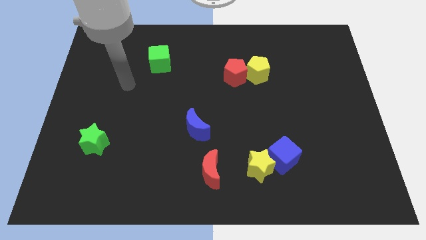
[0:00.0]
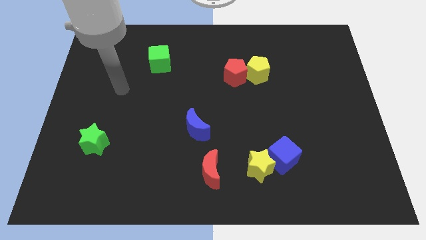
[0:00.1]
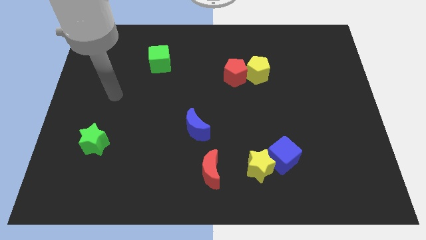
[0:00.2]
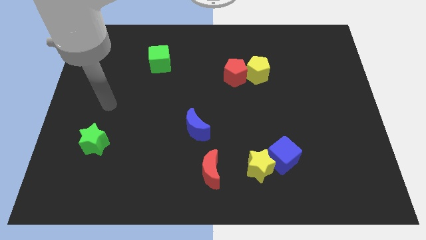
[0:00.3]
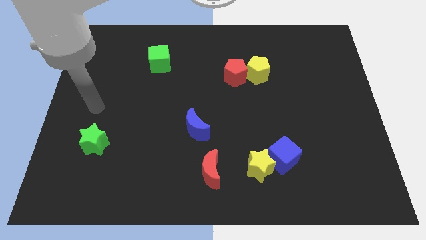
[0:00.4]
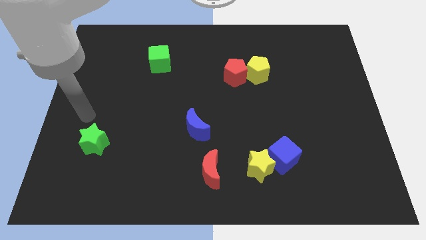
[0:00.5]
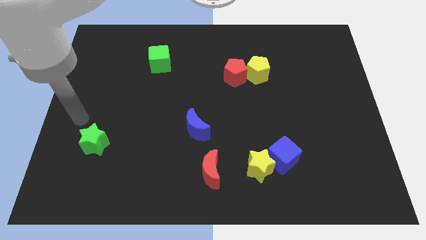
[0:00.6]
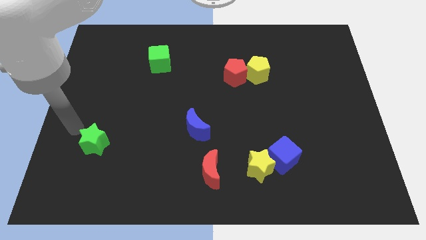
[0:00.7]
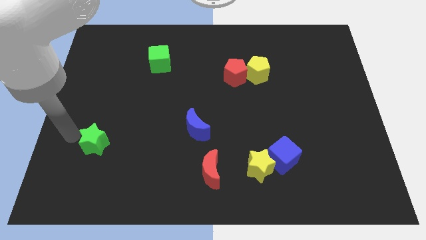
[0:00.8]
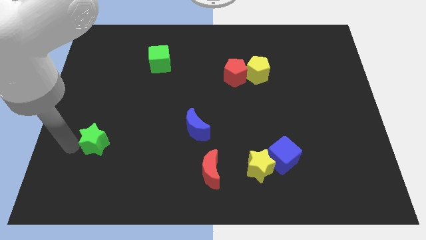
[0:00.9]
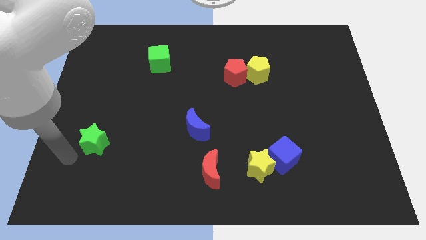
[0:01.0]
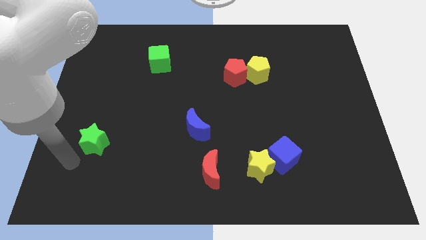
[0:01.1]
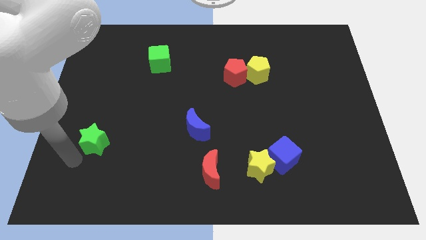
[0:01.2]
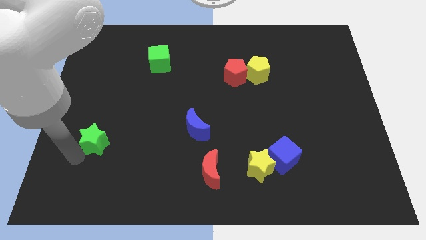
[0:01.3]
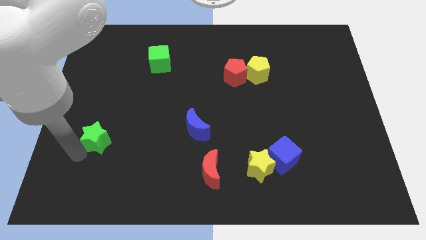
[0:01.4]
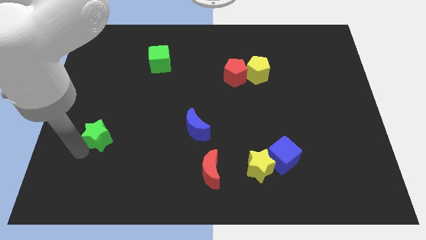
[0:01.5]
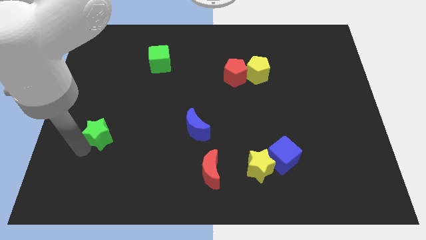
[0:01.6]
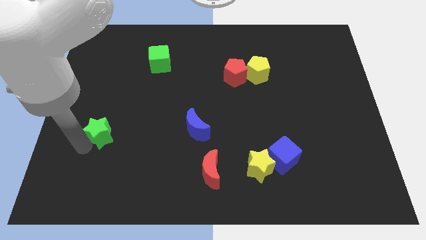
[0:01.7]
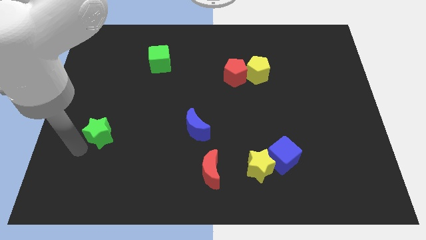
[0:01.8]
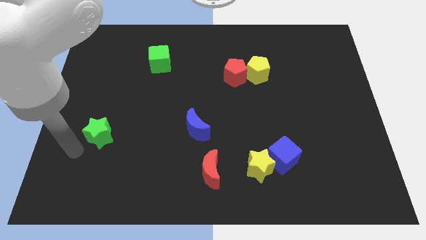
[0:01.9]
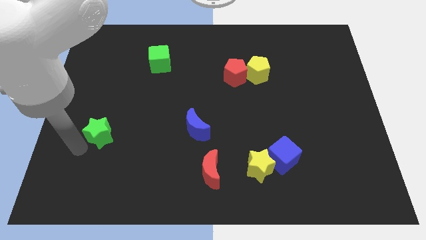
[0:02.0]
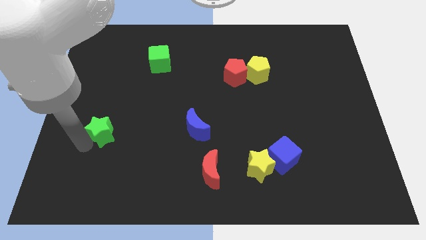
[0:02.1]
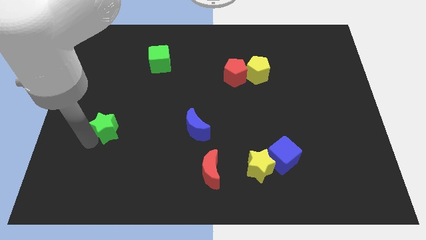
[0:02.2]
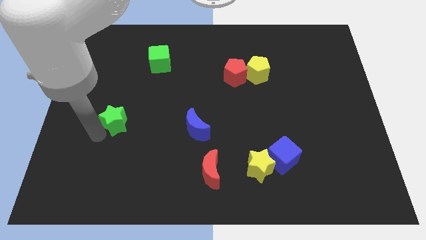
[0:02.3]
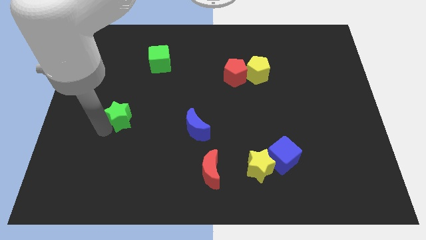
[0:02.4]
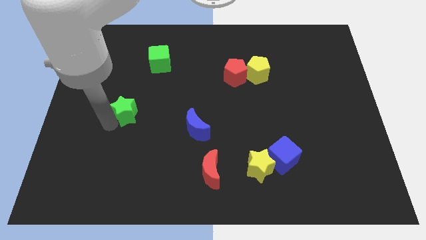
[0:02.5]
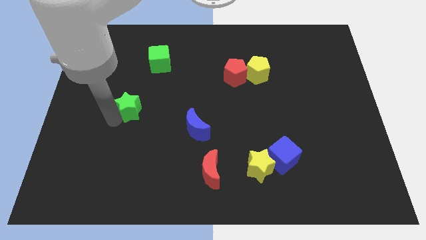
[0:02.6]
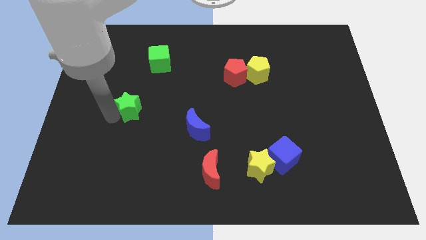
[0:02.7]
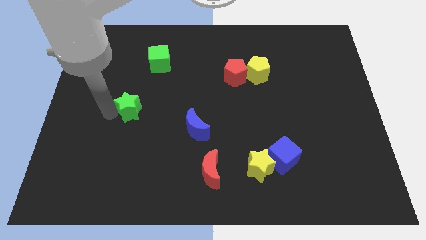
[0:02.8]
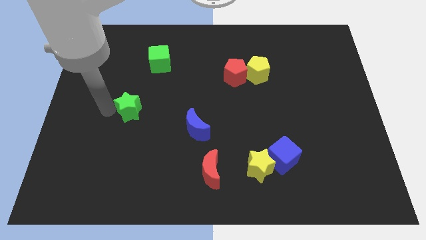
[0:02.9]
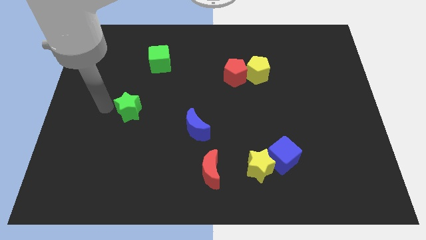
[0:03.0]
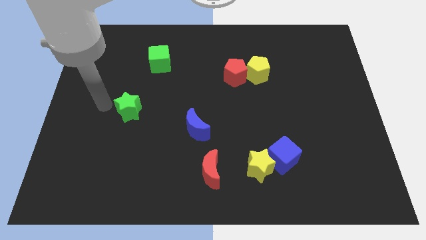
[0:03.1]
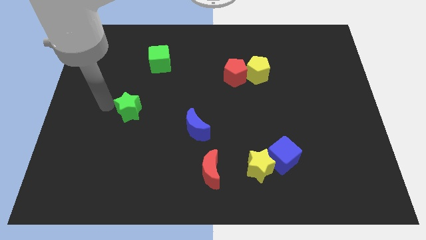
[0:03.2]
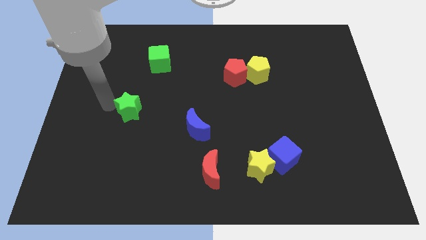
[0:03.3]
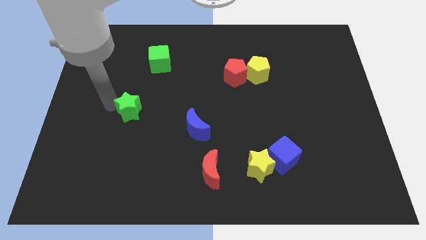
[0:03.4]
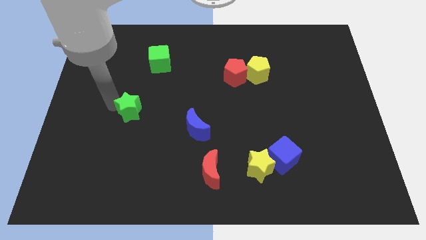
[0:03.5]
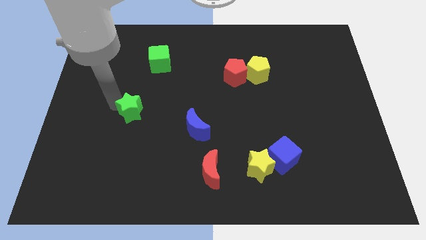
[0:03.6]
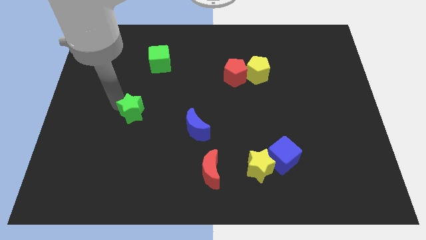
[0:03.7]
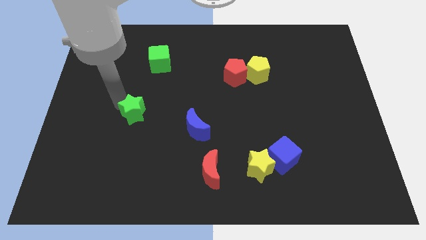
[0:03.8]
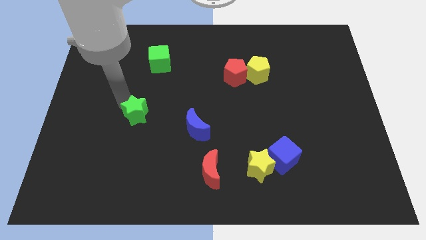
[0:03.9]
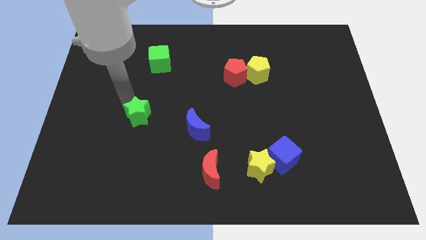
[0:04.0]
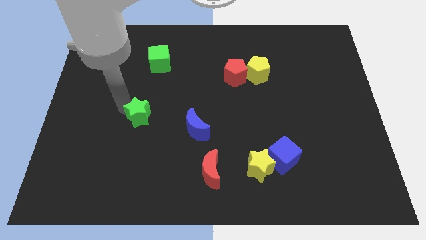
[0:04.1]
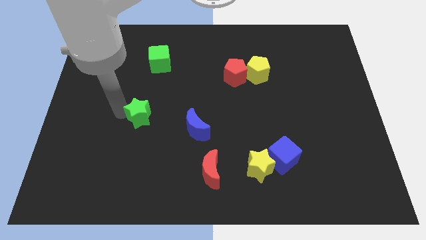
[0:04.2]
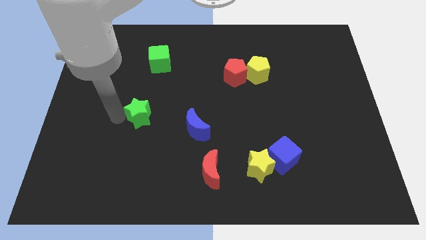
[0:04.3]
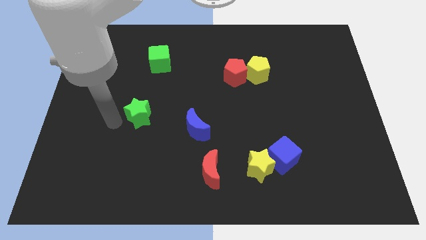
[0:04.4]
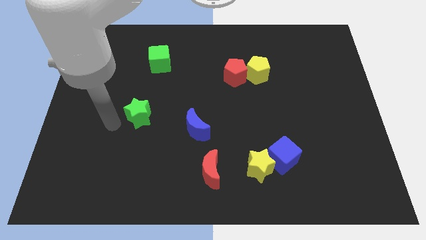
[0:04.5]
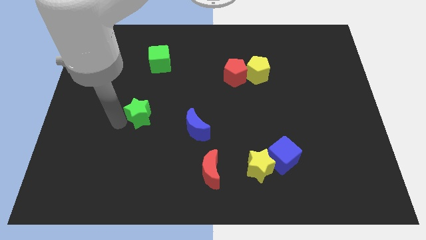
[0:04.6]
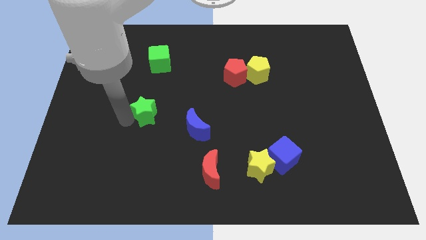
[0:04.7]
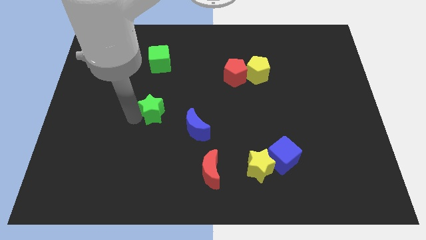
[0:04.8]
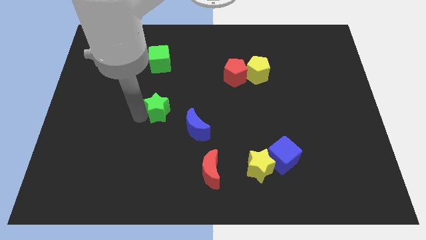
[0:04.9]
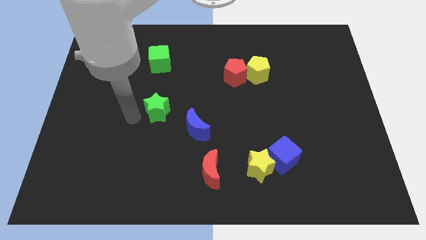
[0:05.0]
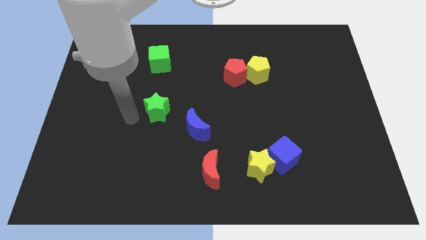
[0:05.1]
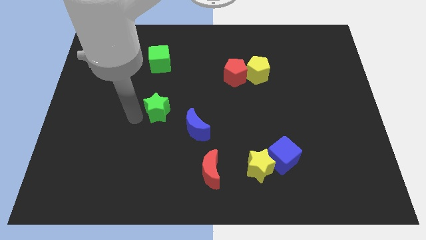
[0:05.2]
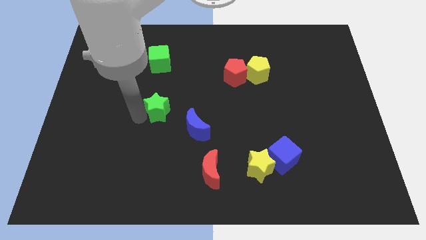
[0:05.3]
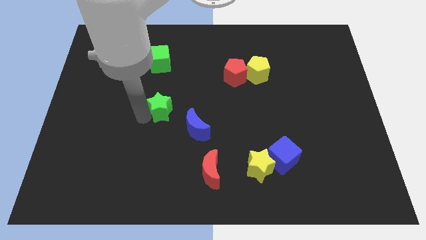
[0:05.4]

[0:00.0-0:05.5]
push the green star to the middle of the board
